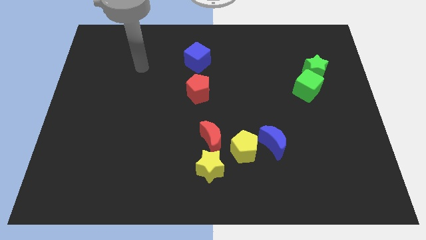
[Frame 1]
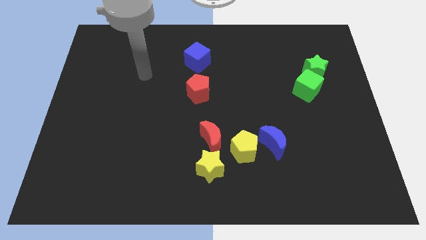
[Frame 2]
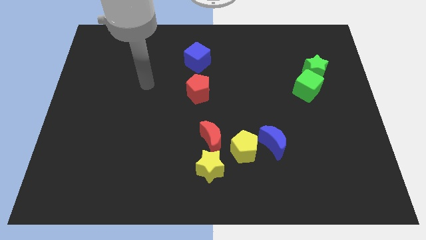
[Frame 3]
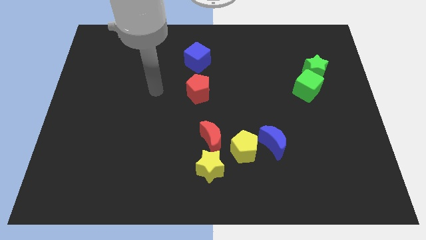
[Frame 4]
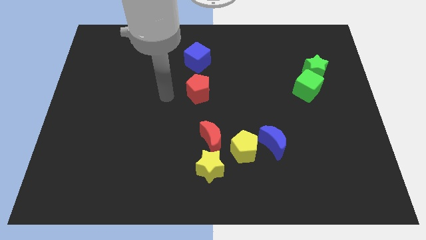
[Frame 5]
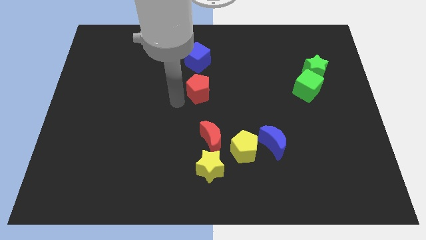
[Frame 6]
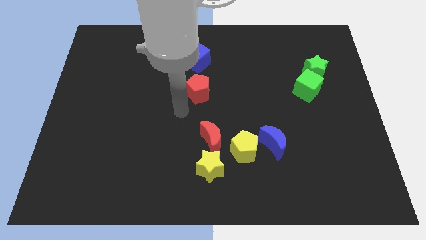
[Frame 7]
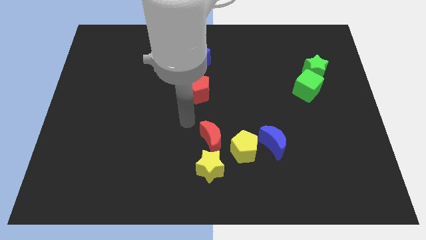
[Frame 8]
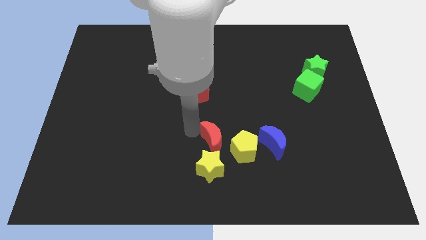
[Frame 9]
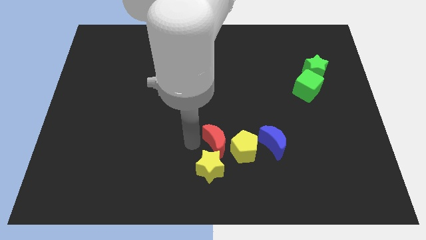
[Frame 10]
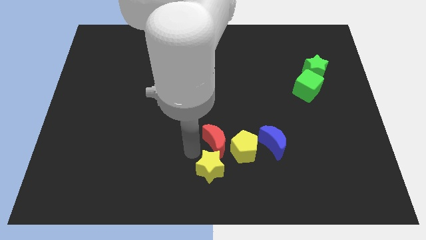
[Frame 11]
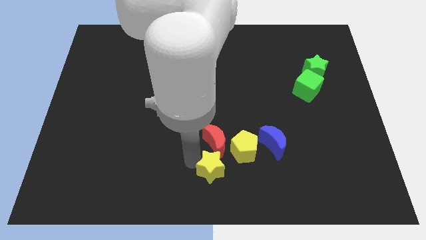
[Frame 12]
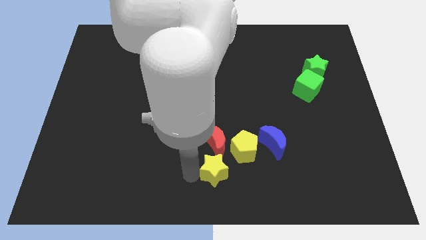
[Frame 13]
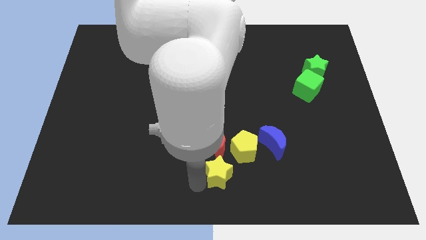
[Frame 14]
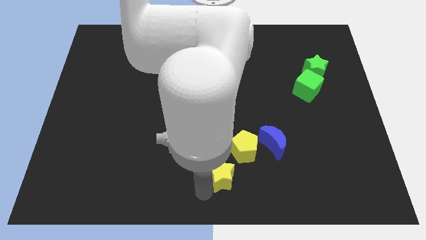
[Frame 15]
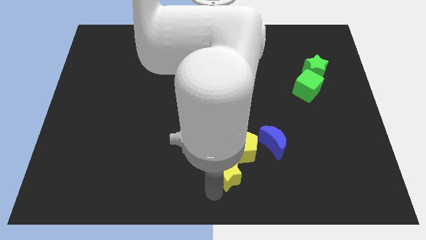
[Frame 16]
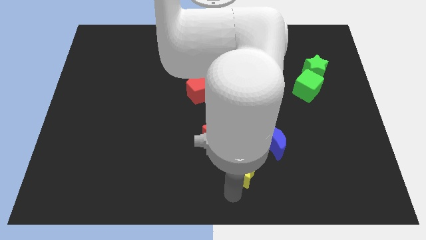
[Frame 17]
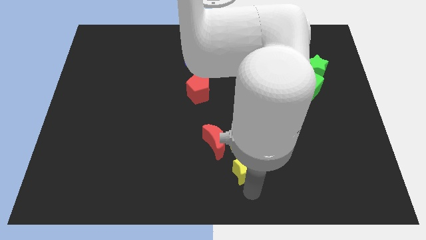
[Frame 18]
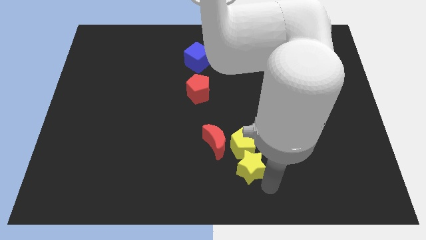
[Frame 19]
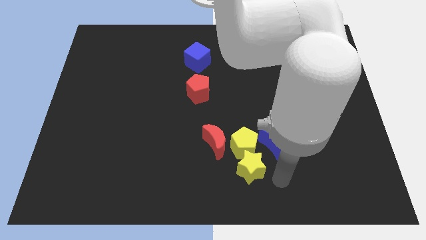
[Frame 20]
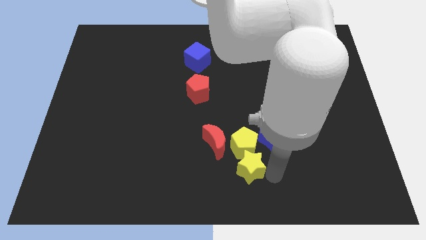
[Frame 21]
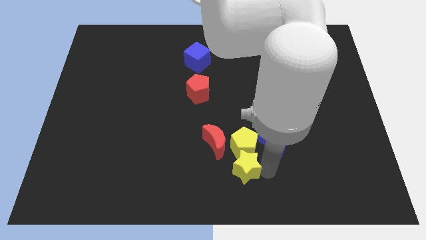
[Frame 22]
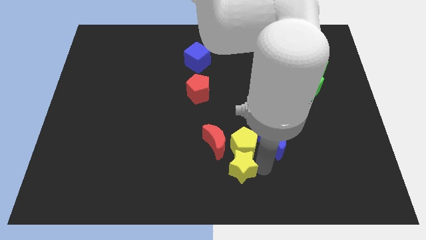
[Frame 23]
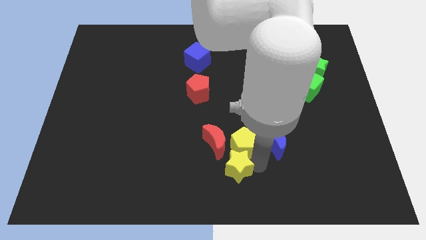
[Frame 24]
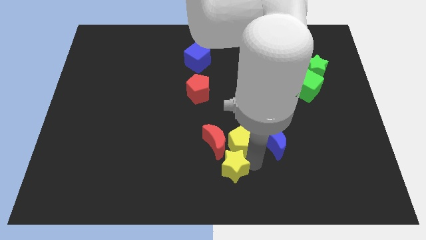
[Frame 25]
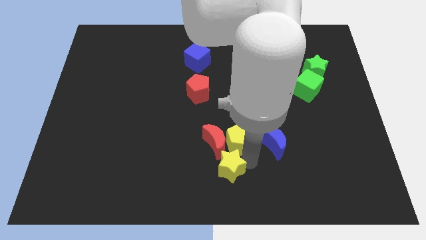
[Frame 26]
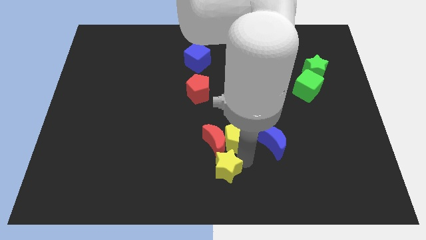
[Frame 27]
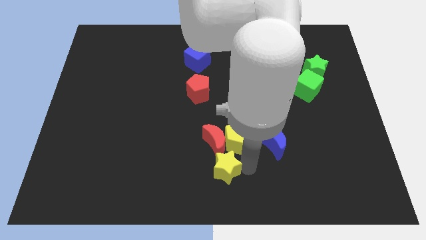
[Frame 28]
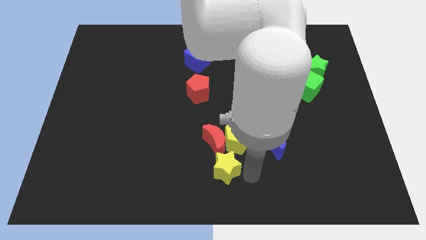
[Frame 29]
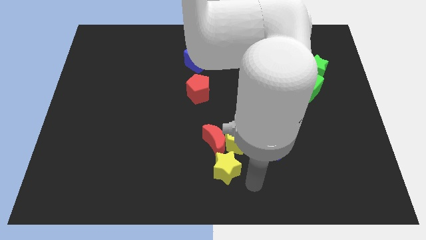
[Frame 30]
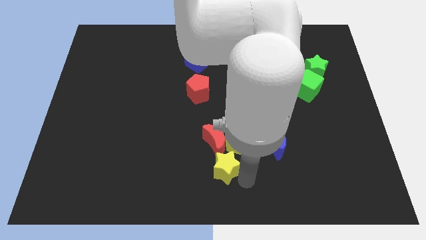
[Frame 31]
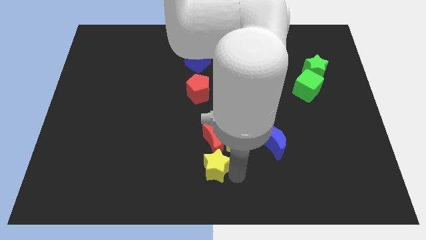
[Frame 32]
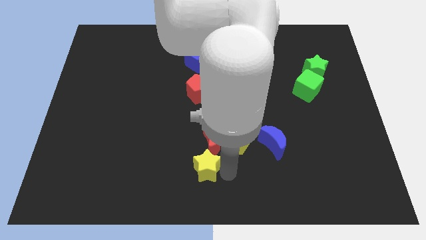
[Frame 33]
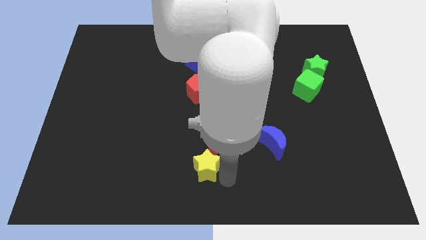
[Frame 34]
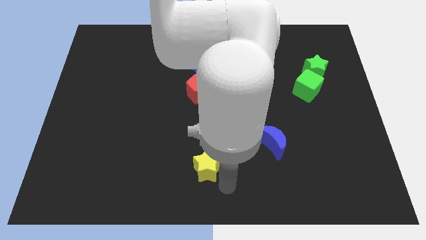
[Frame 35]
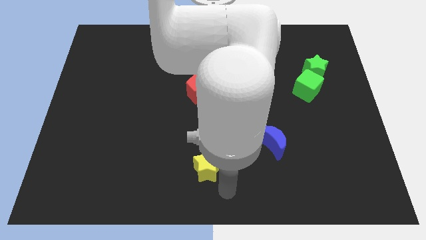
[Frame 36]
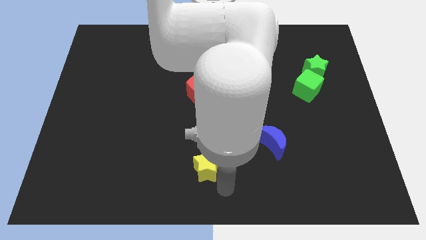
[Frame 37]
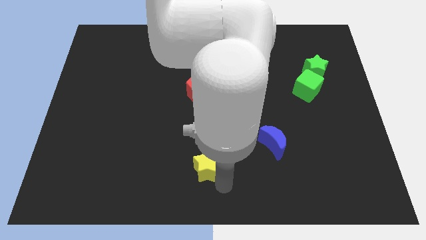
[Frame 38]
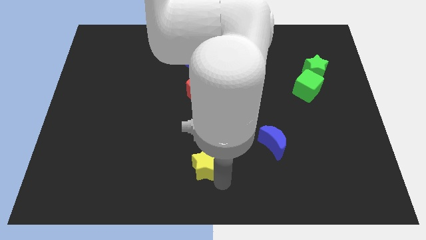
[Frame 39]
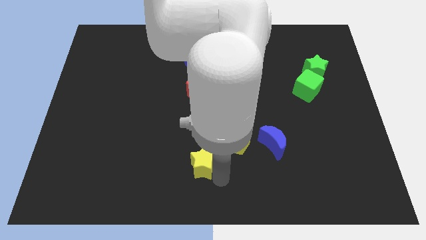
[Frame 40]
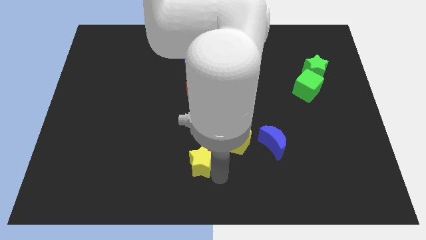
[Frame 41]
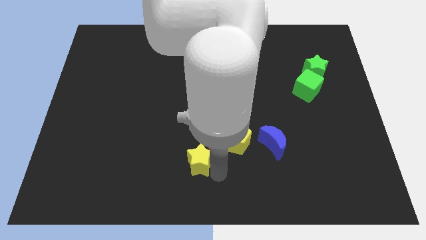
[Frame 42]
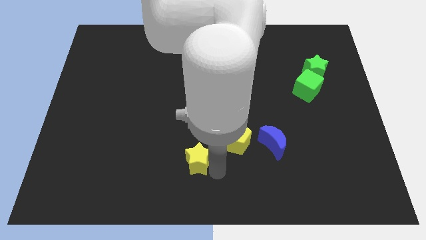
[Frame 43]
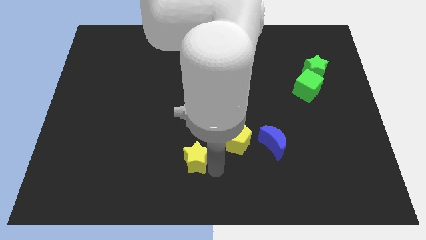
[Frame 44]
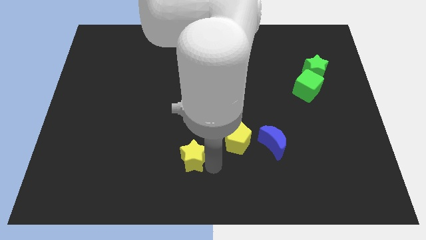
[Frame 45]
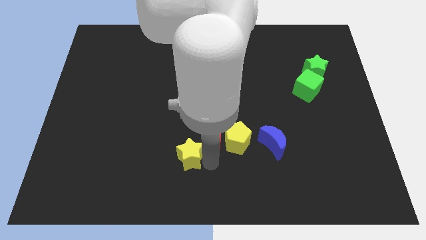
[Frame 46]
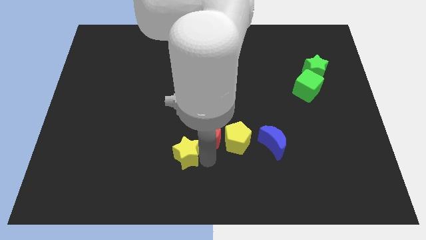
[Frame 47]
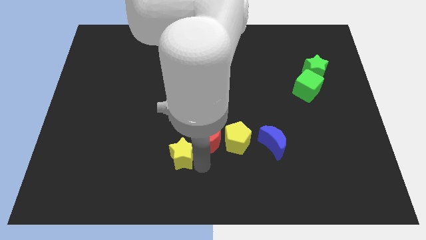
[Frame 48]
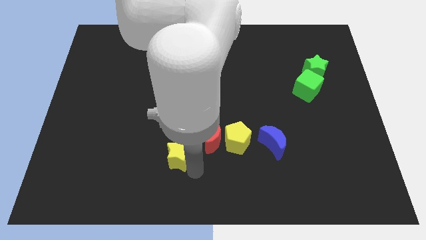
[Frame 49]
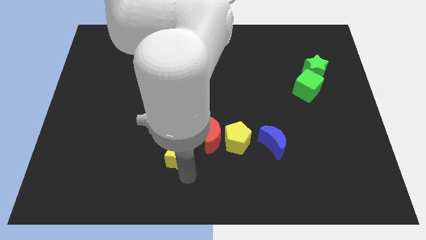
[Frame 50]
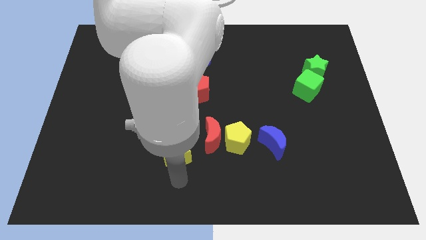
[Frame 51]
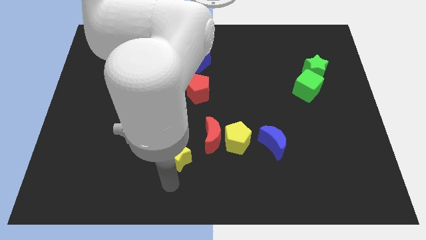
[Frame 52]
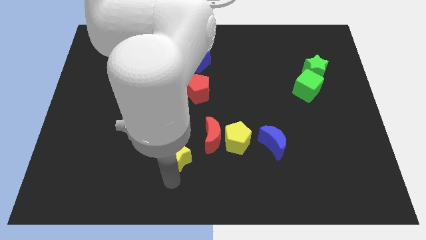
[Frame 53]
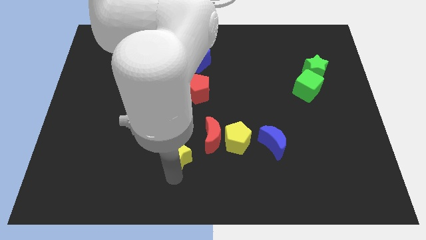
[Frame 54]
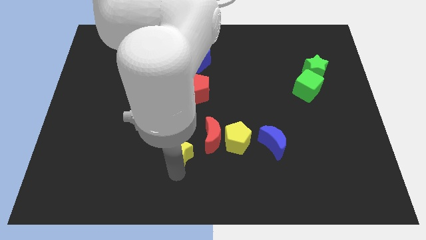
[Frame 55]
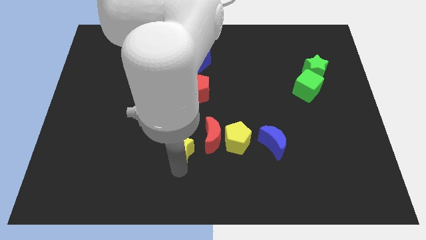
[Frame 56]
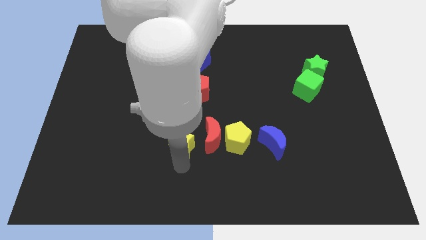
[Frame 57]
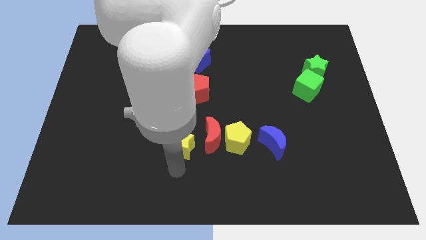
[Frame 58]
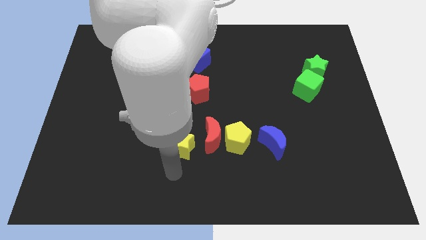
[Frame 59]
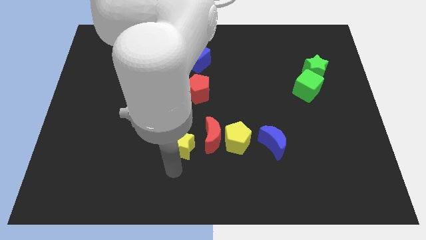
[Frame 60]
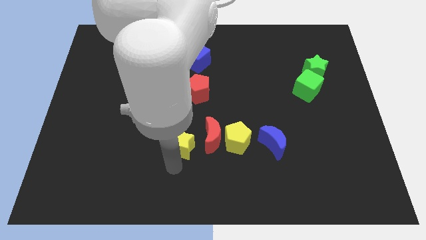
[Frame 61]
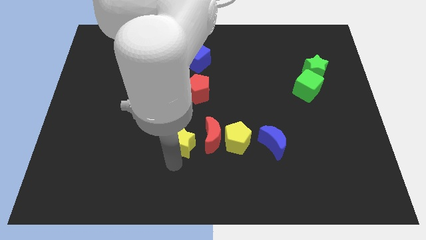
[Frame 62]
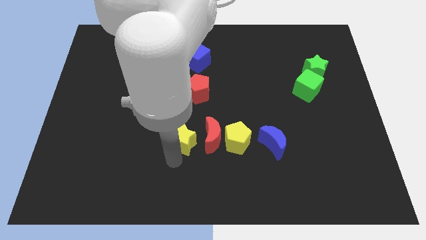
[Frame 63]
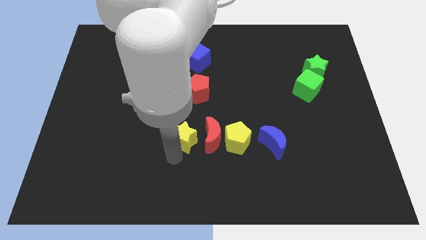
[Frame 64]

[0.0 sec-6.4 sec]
put the yellow star to the top left of the red moon
